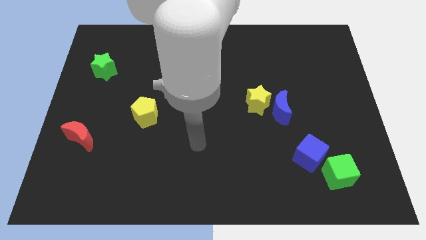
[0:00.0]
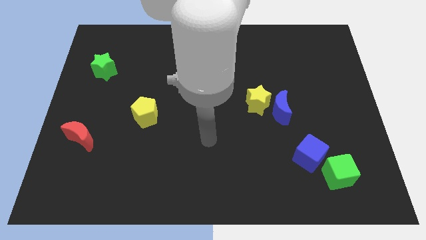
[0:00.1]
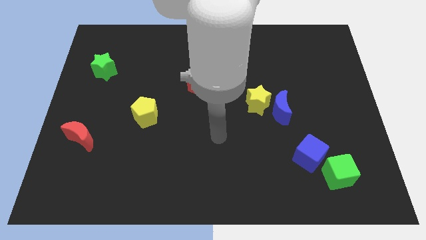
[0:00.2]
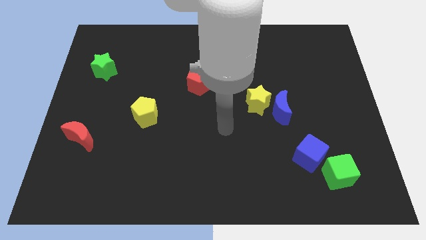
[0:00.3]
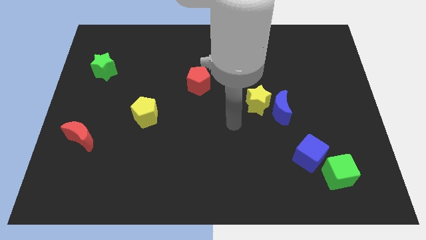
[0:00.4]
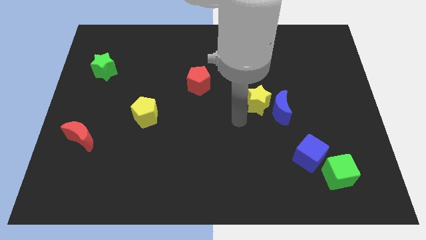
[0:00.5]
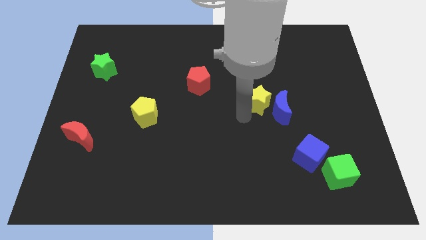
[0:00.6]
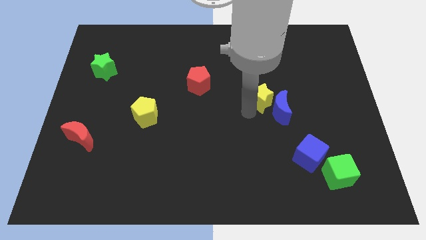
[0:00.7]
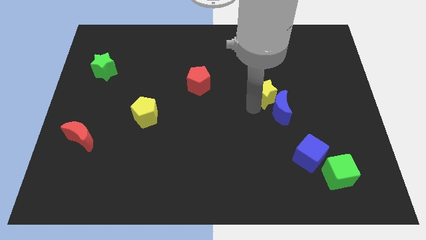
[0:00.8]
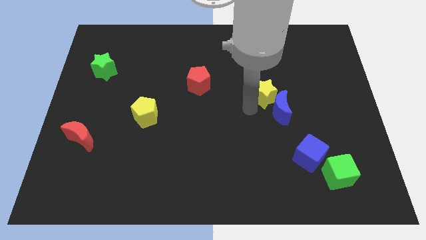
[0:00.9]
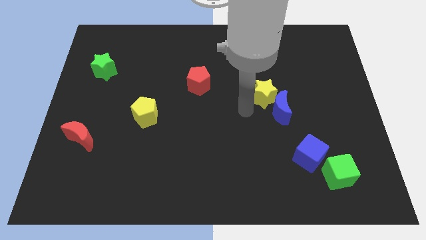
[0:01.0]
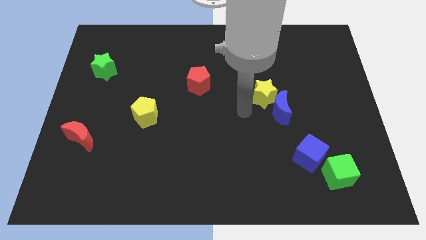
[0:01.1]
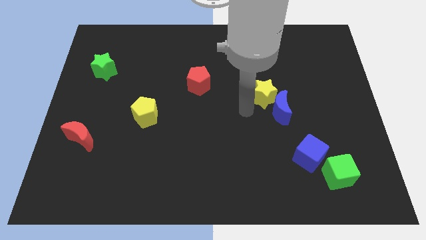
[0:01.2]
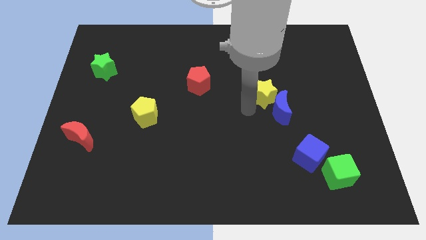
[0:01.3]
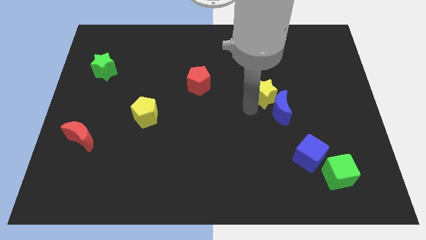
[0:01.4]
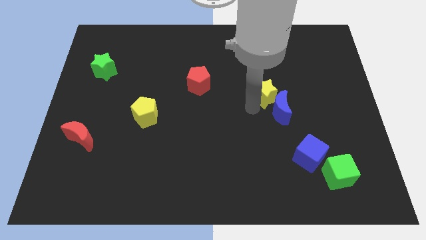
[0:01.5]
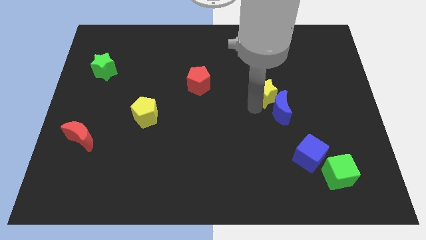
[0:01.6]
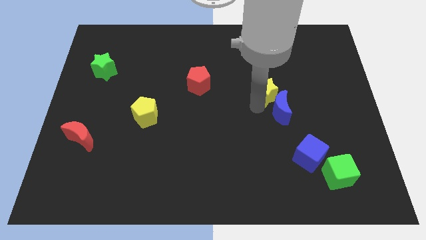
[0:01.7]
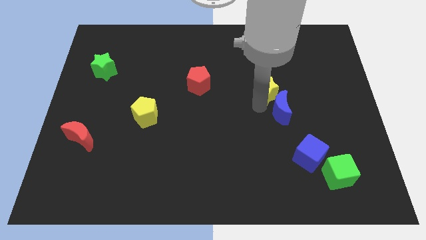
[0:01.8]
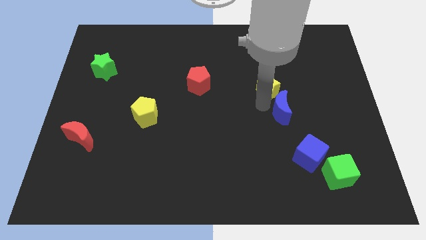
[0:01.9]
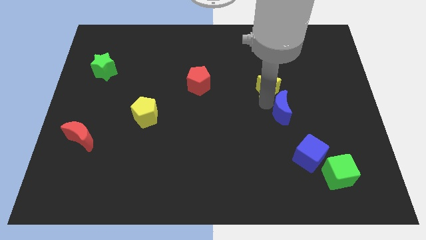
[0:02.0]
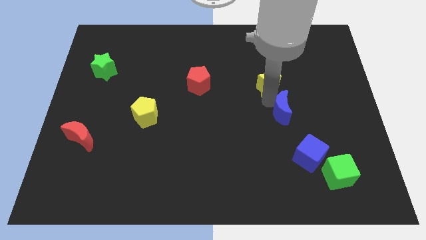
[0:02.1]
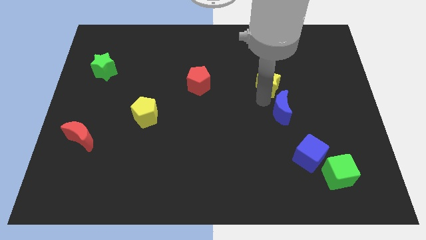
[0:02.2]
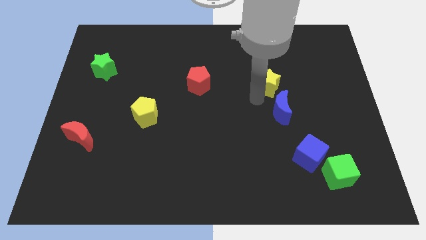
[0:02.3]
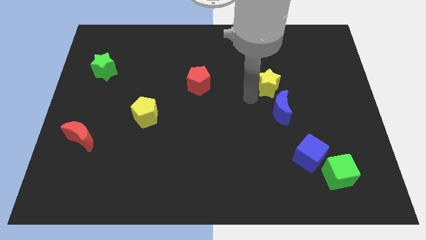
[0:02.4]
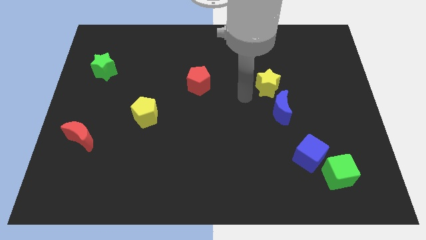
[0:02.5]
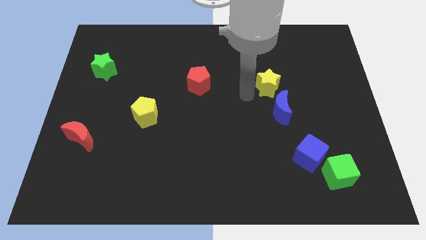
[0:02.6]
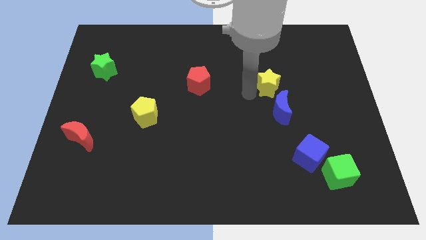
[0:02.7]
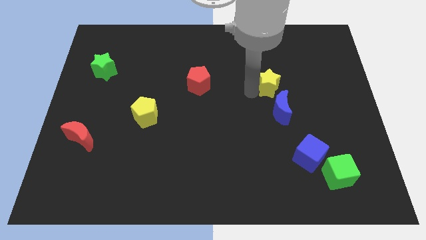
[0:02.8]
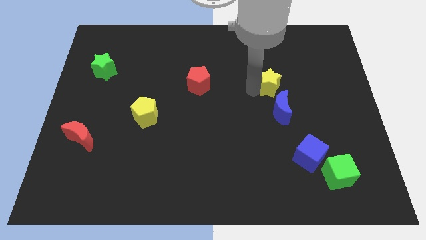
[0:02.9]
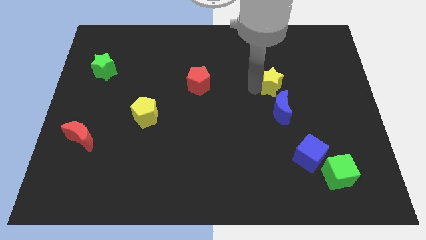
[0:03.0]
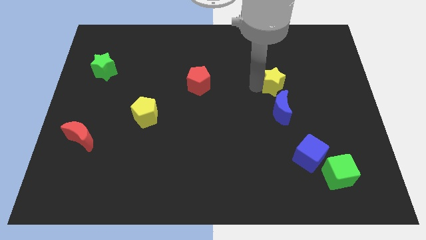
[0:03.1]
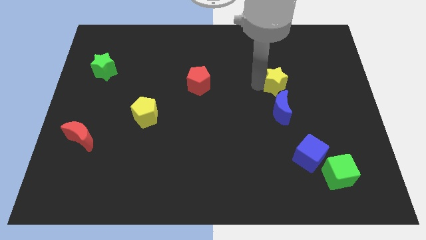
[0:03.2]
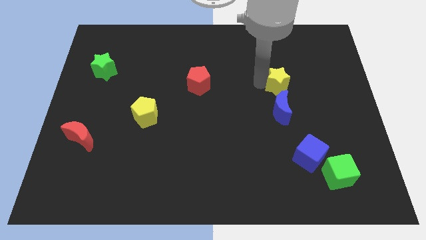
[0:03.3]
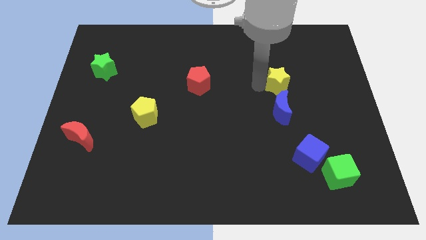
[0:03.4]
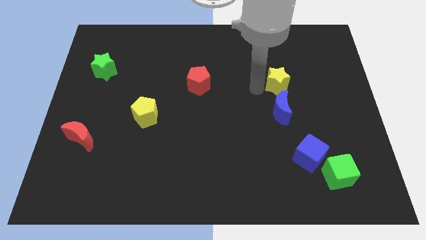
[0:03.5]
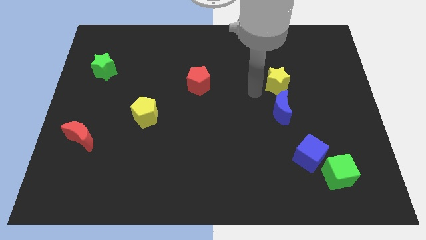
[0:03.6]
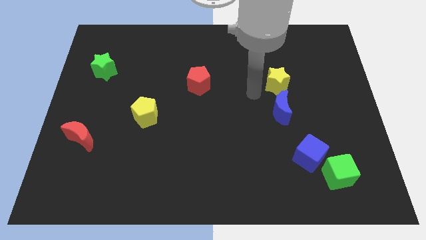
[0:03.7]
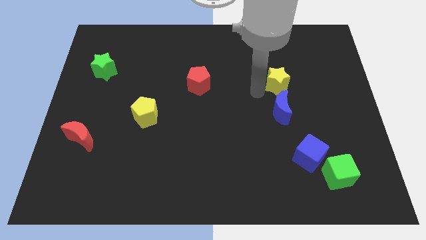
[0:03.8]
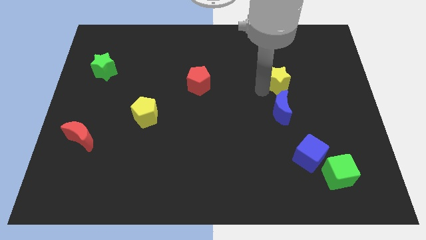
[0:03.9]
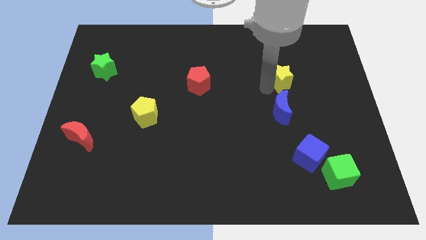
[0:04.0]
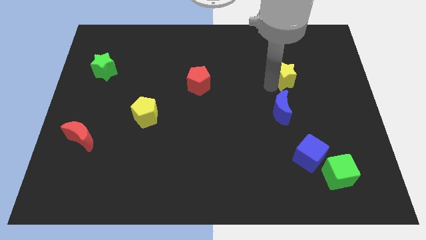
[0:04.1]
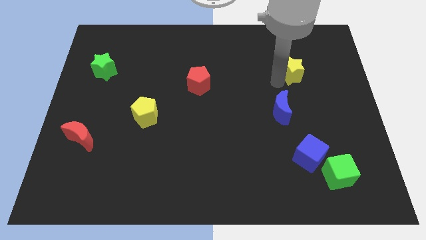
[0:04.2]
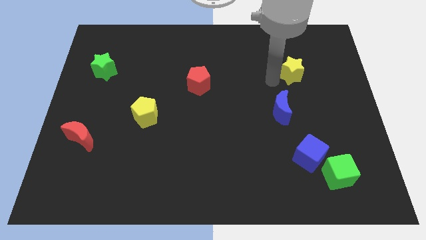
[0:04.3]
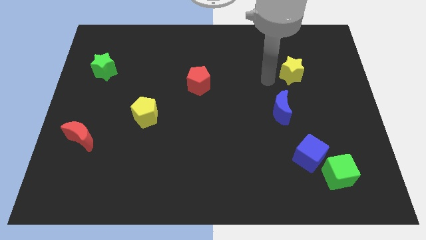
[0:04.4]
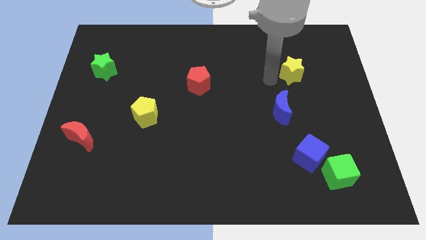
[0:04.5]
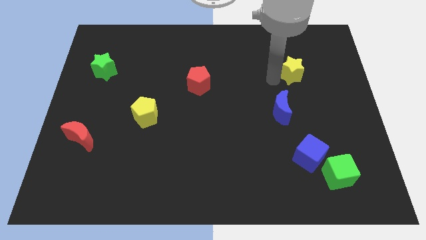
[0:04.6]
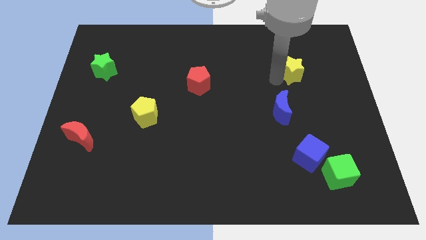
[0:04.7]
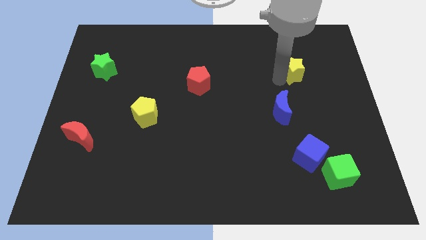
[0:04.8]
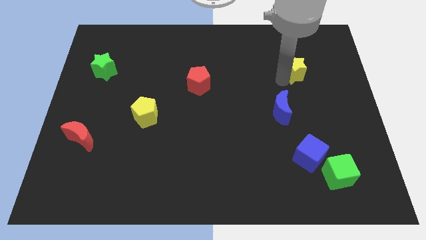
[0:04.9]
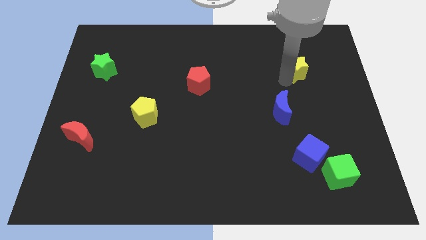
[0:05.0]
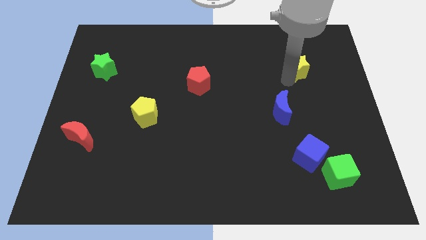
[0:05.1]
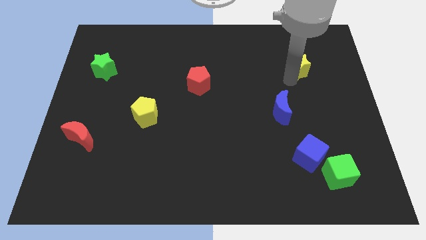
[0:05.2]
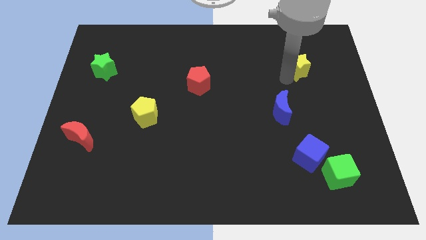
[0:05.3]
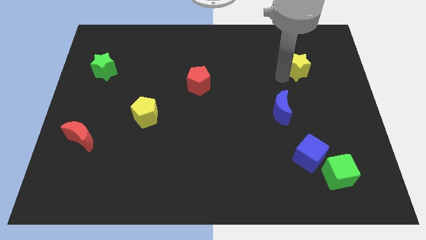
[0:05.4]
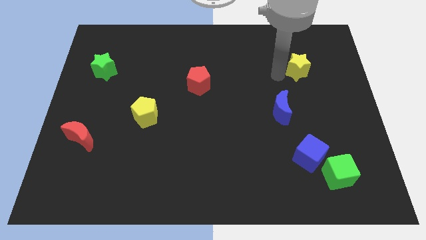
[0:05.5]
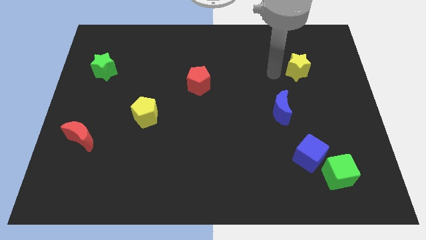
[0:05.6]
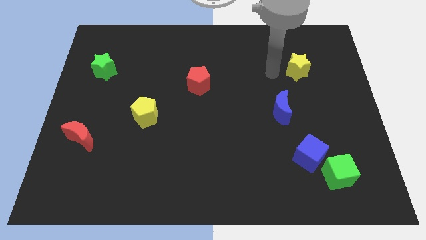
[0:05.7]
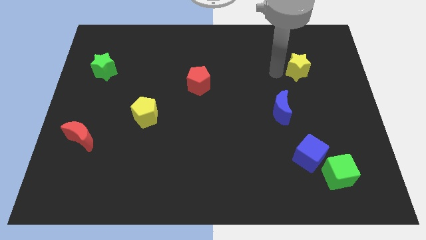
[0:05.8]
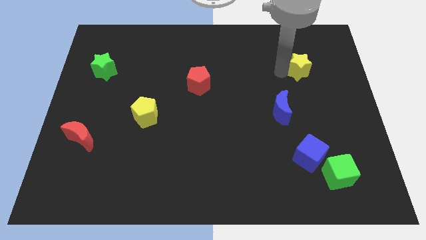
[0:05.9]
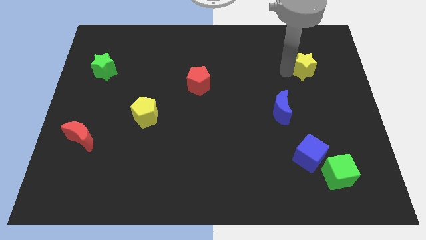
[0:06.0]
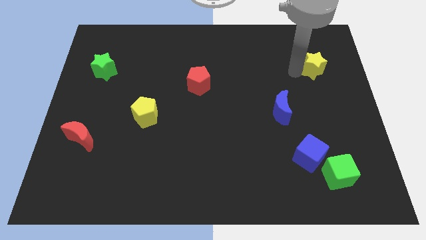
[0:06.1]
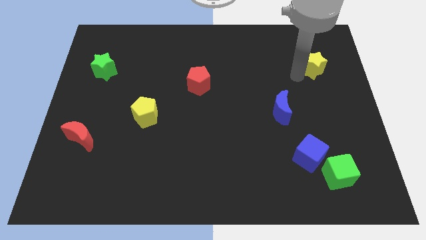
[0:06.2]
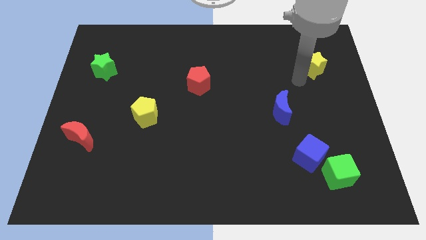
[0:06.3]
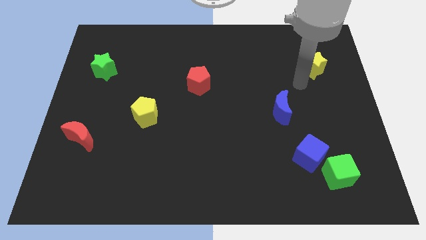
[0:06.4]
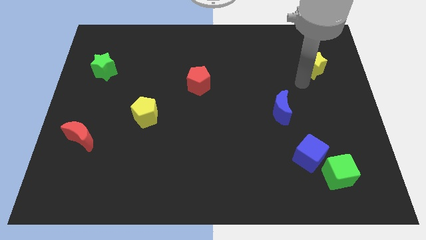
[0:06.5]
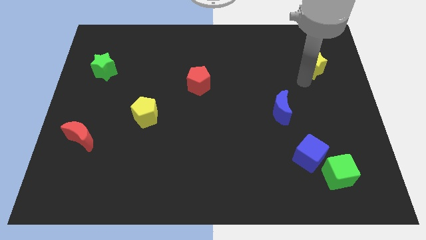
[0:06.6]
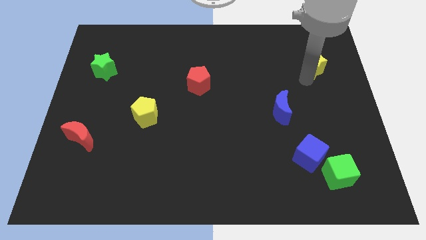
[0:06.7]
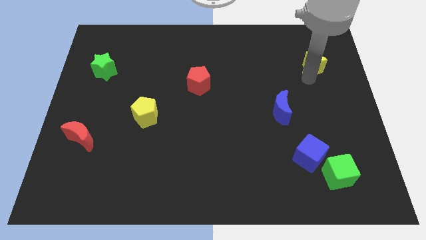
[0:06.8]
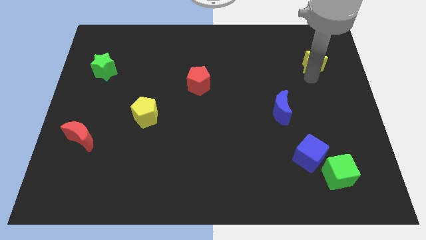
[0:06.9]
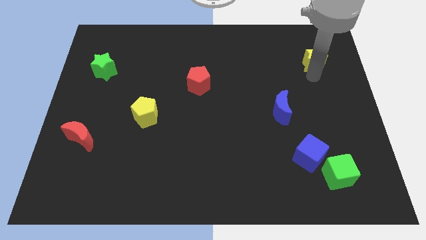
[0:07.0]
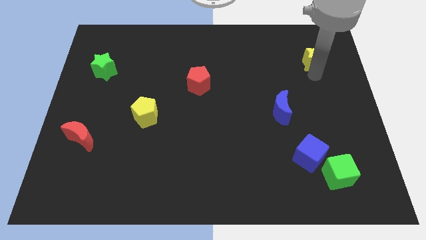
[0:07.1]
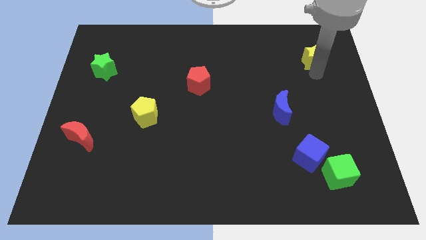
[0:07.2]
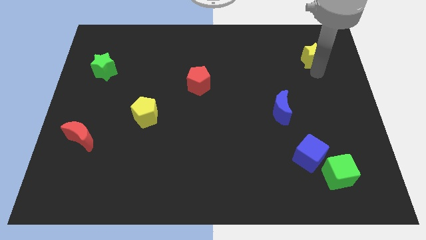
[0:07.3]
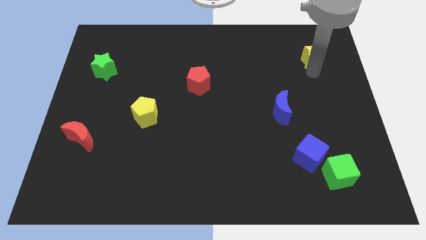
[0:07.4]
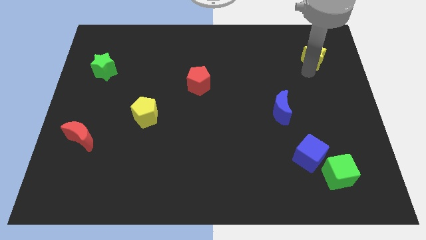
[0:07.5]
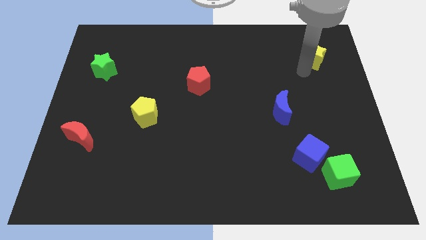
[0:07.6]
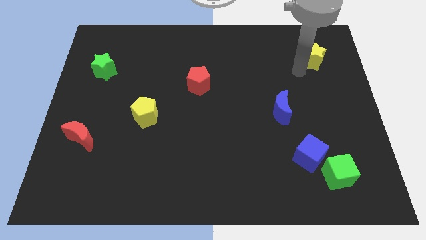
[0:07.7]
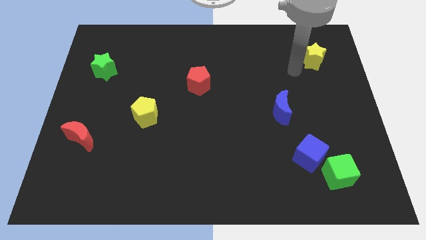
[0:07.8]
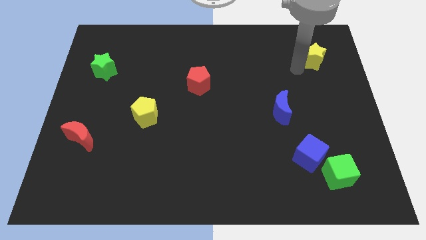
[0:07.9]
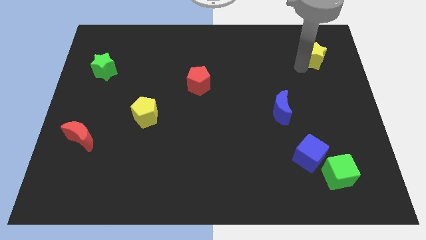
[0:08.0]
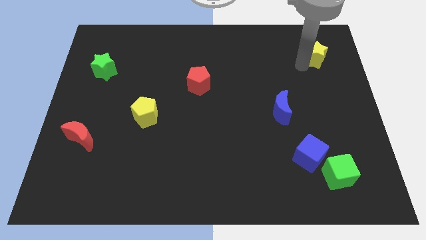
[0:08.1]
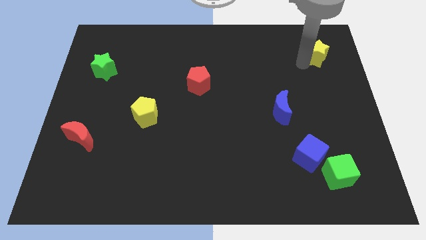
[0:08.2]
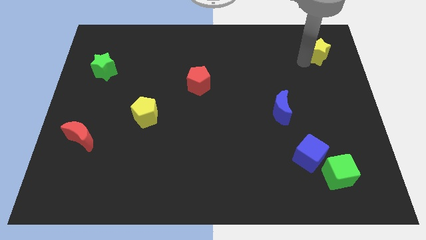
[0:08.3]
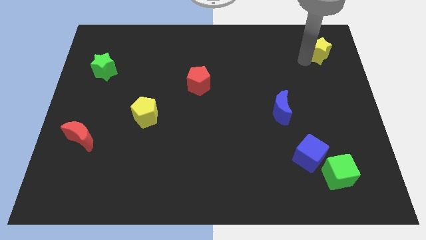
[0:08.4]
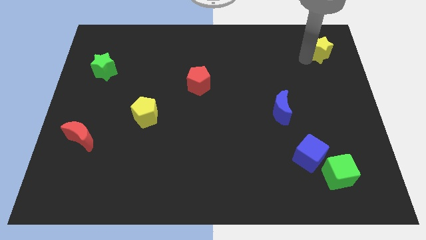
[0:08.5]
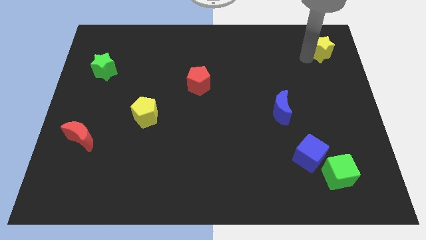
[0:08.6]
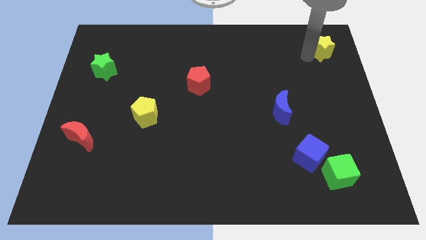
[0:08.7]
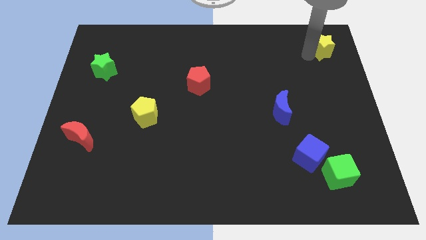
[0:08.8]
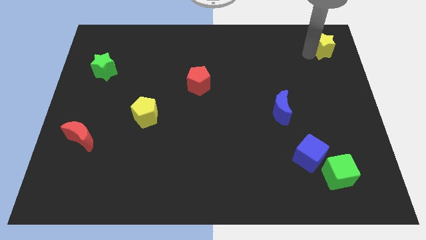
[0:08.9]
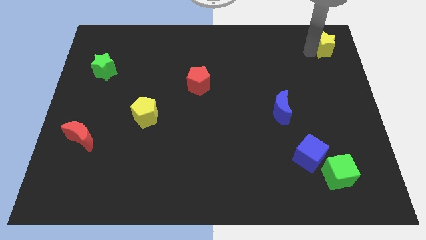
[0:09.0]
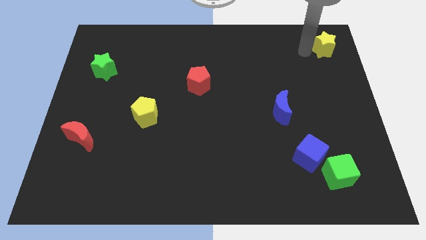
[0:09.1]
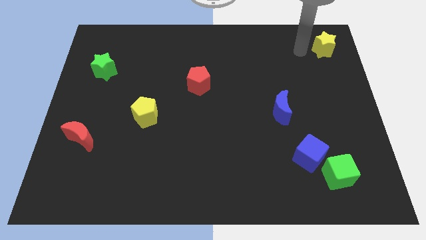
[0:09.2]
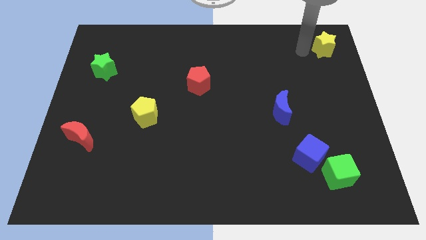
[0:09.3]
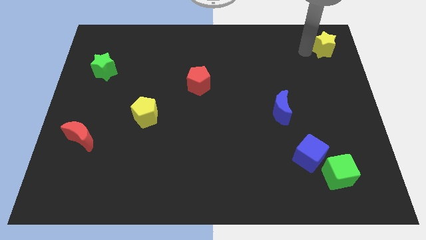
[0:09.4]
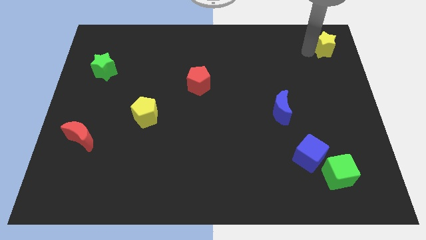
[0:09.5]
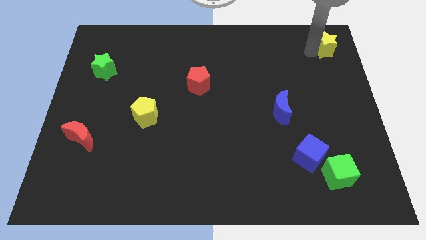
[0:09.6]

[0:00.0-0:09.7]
put the yellow star to the upper right corner
